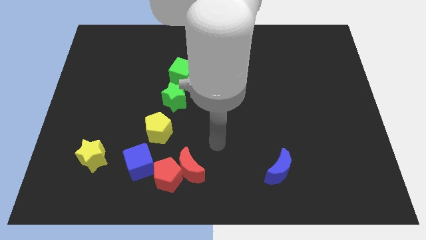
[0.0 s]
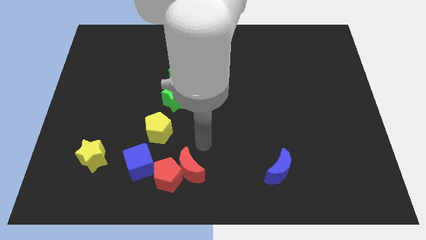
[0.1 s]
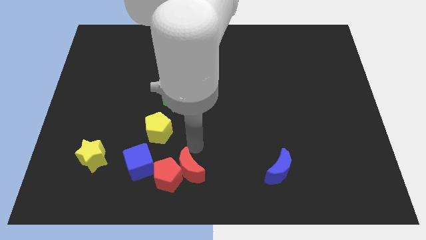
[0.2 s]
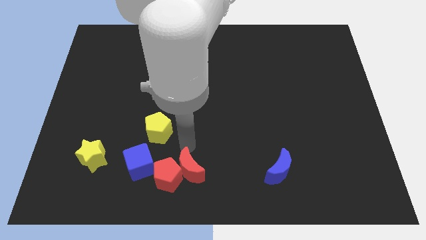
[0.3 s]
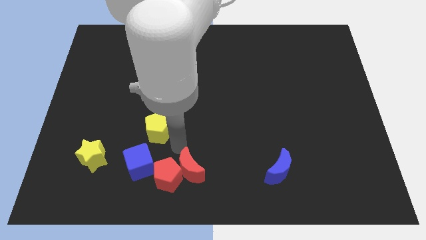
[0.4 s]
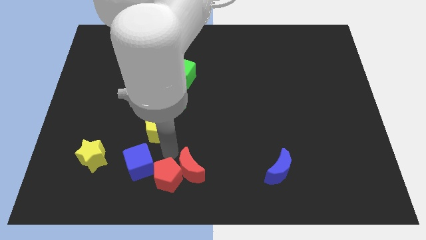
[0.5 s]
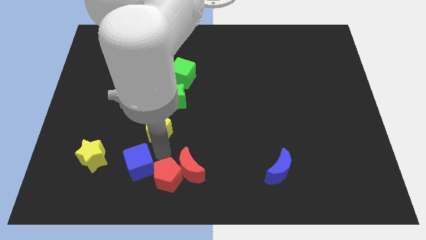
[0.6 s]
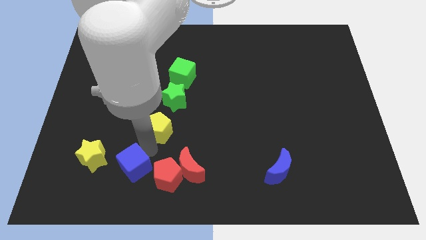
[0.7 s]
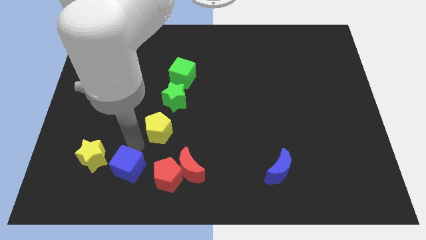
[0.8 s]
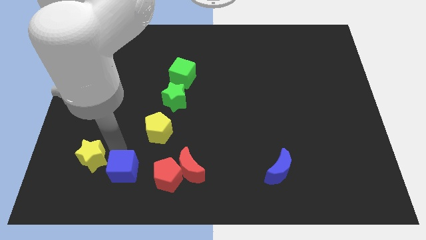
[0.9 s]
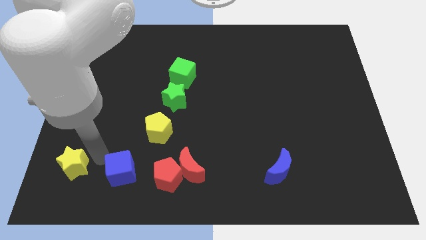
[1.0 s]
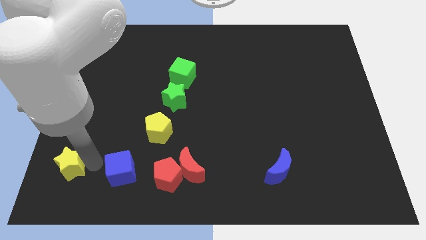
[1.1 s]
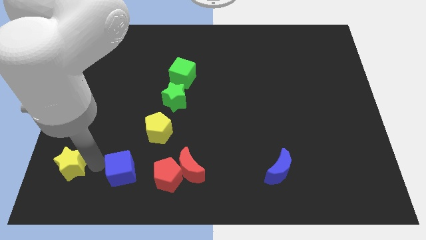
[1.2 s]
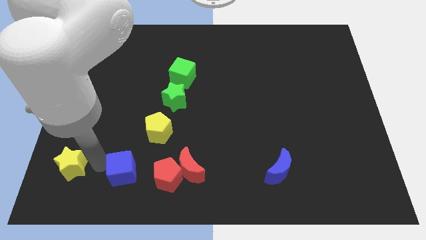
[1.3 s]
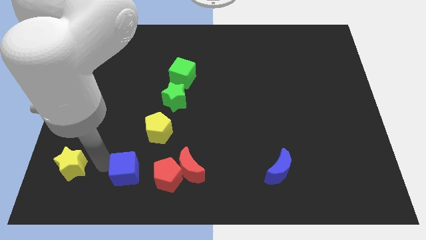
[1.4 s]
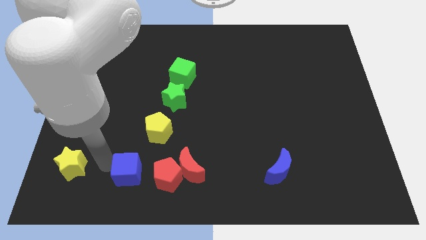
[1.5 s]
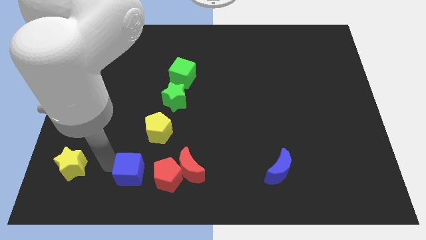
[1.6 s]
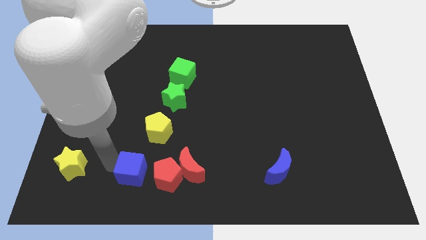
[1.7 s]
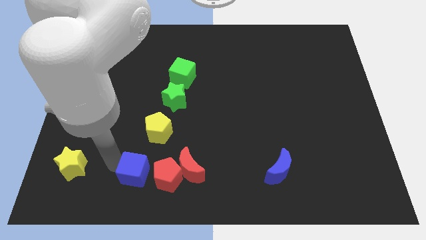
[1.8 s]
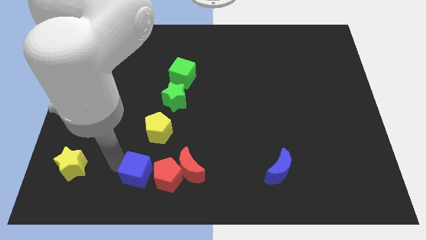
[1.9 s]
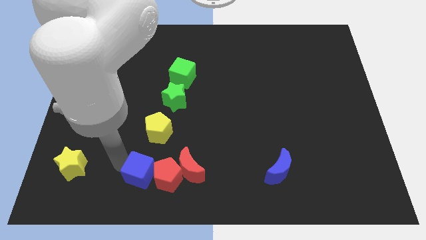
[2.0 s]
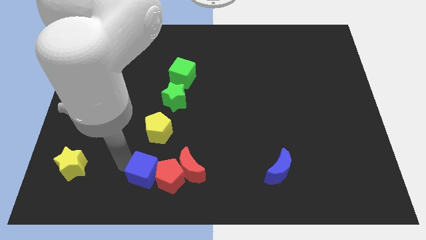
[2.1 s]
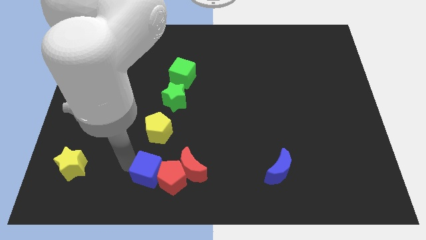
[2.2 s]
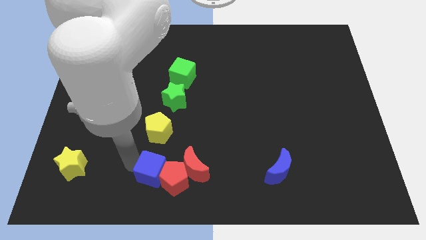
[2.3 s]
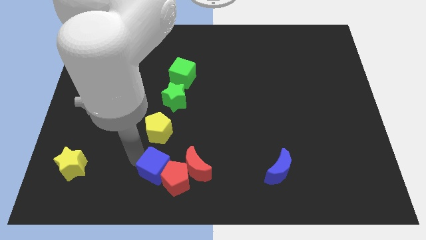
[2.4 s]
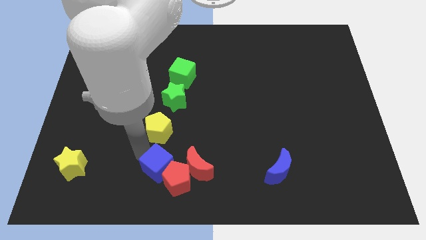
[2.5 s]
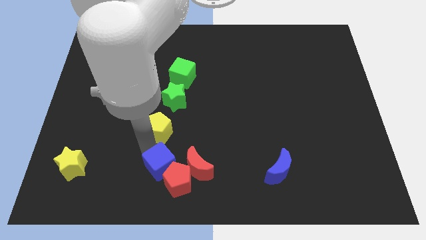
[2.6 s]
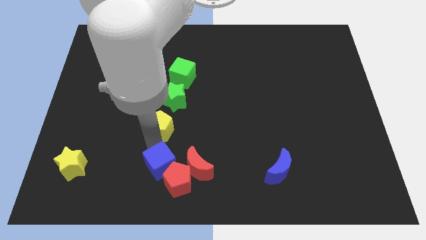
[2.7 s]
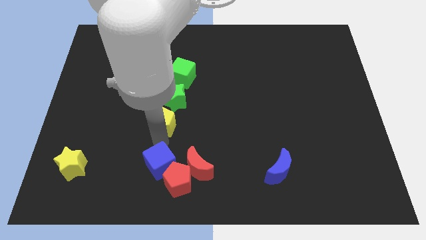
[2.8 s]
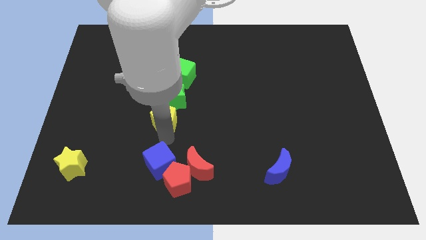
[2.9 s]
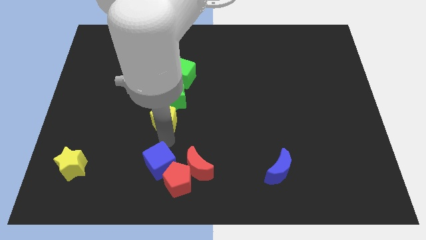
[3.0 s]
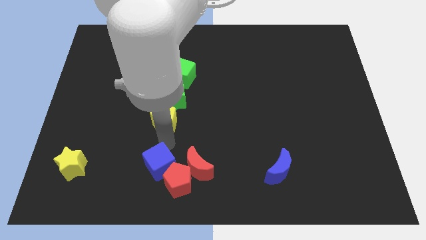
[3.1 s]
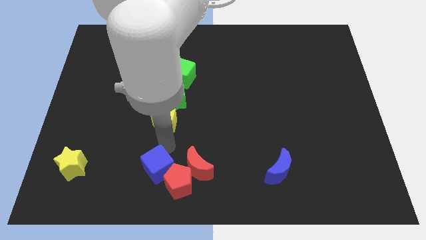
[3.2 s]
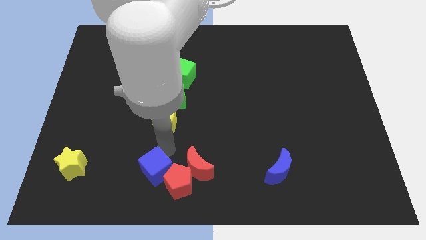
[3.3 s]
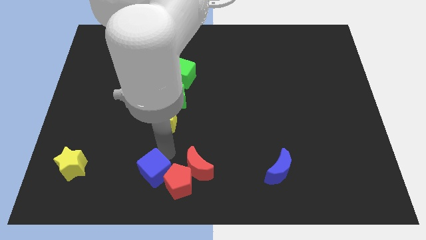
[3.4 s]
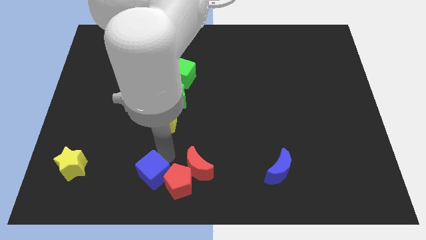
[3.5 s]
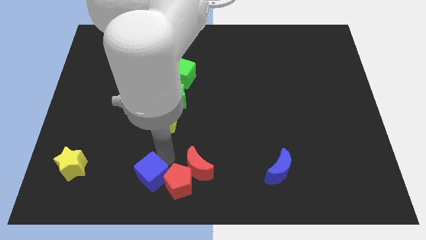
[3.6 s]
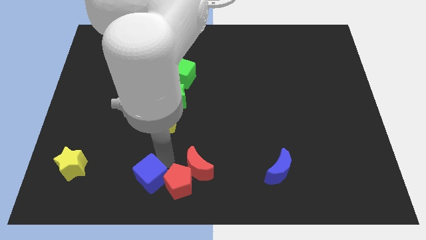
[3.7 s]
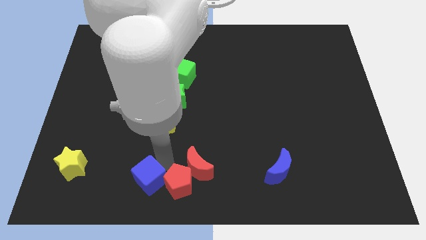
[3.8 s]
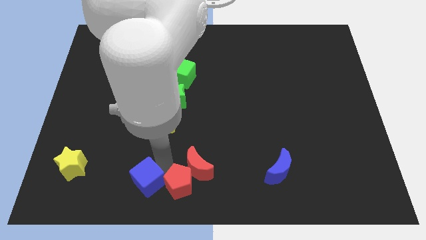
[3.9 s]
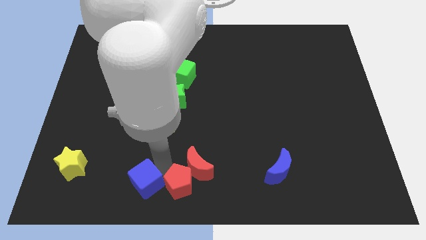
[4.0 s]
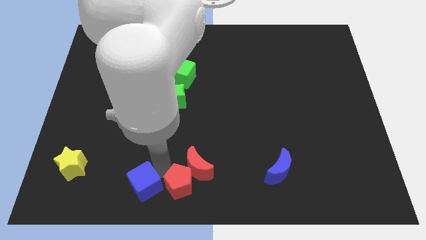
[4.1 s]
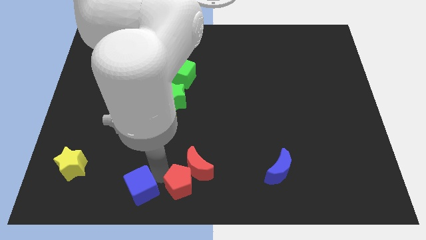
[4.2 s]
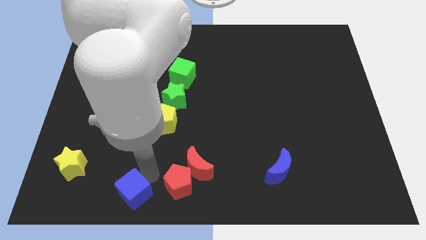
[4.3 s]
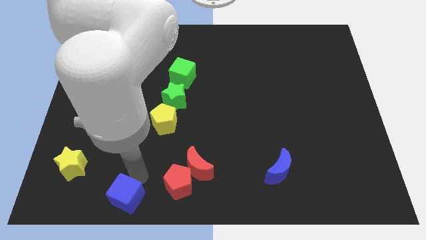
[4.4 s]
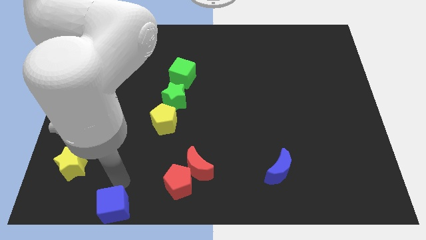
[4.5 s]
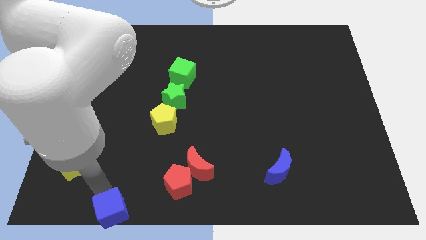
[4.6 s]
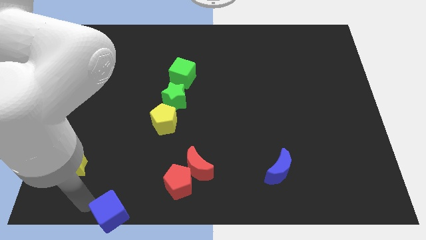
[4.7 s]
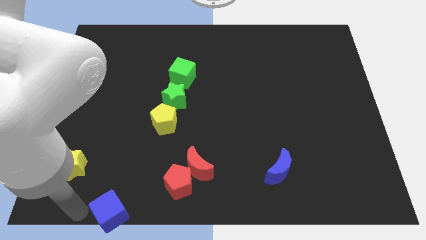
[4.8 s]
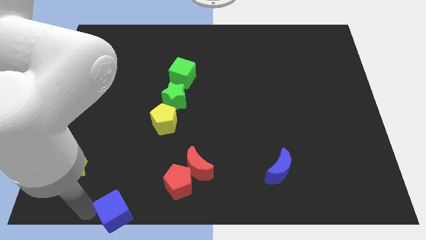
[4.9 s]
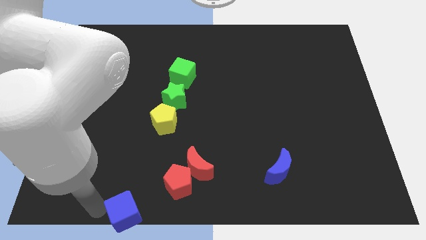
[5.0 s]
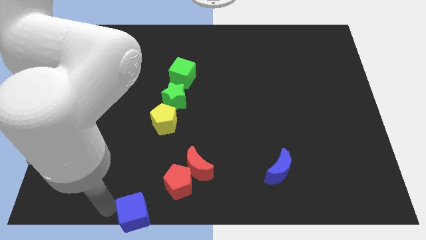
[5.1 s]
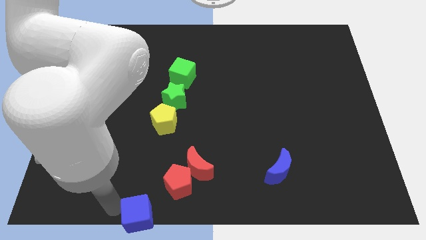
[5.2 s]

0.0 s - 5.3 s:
move the blue cube to the bottom
